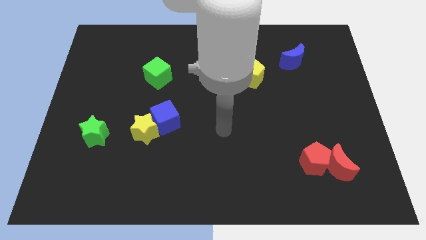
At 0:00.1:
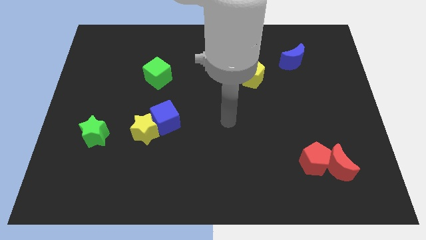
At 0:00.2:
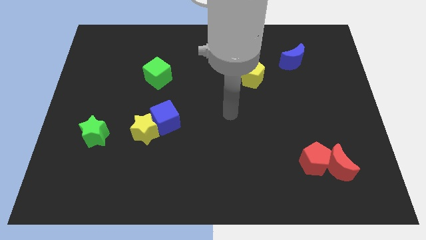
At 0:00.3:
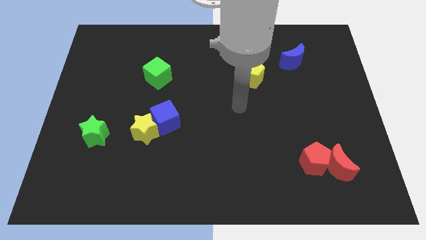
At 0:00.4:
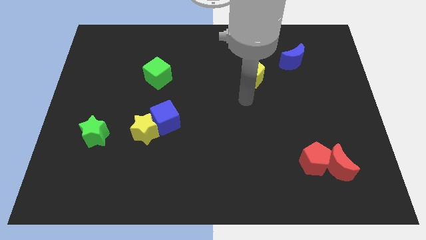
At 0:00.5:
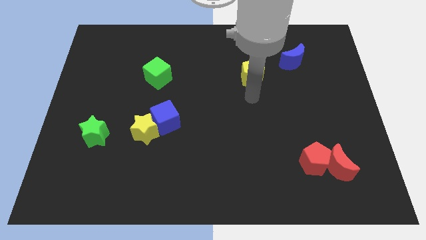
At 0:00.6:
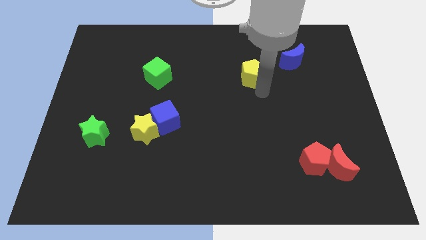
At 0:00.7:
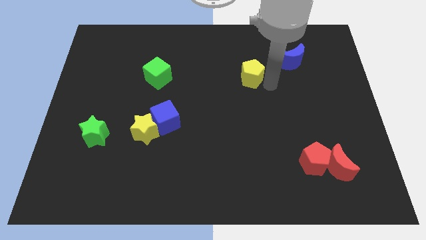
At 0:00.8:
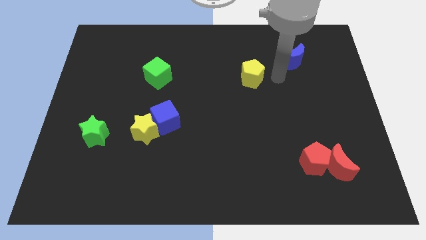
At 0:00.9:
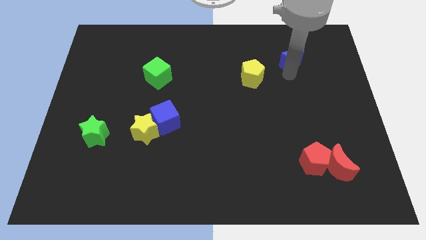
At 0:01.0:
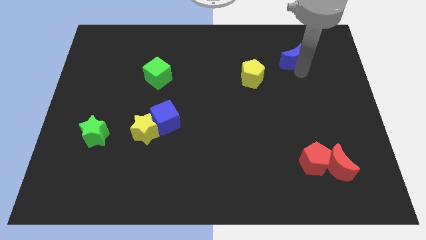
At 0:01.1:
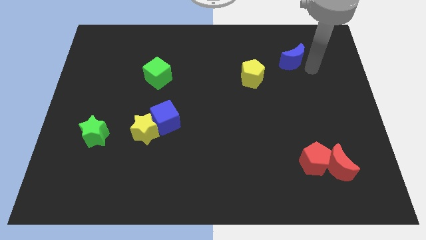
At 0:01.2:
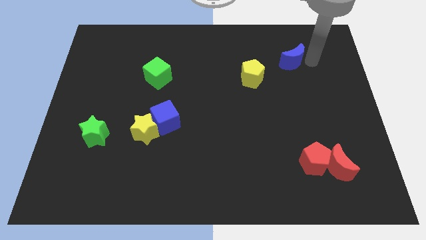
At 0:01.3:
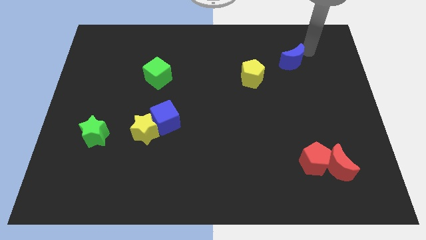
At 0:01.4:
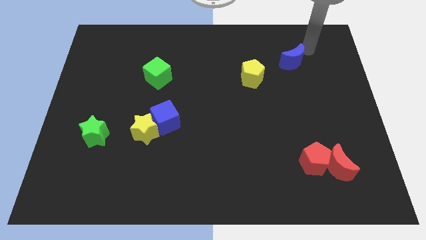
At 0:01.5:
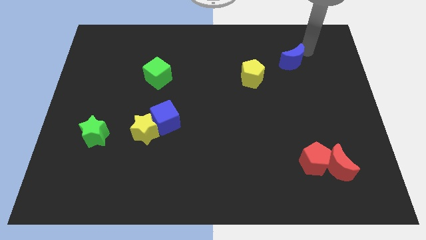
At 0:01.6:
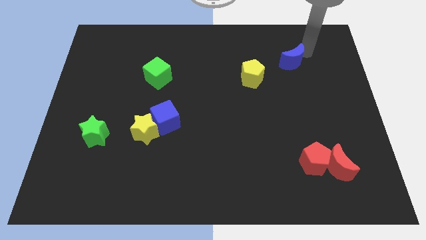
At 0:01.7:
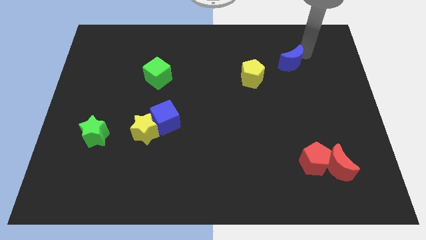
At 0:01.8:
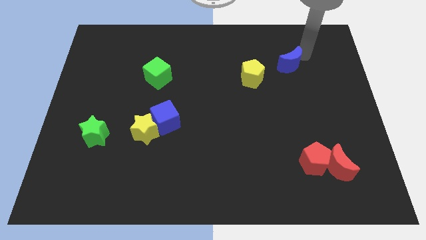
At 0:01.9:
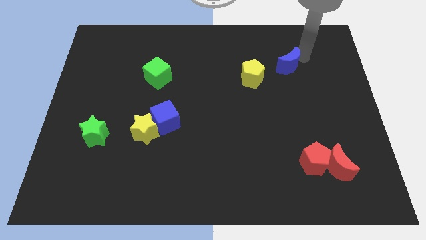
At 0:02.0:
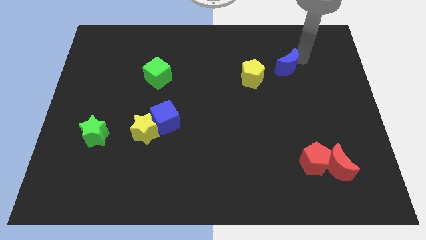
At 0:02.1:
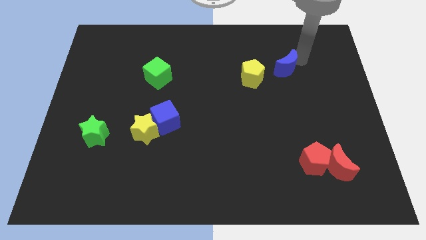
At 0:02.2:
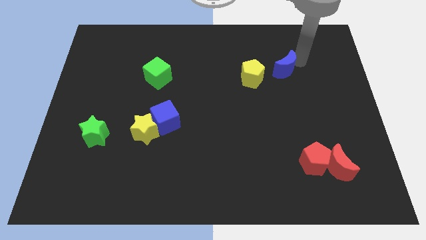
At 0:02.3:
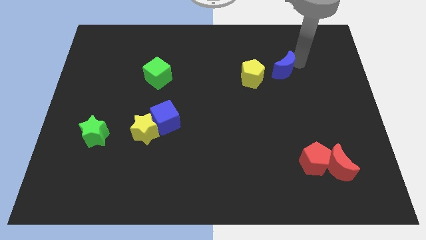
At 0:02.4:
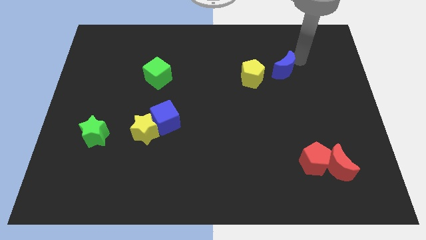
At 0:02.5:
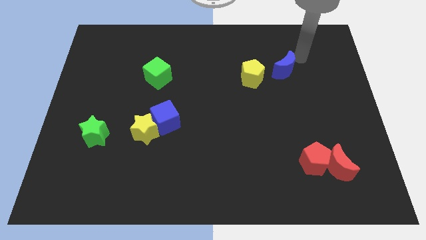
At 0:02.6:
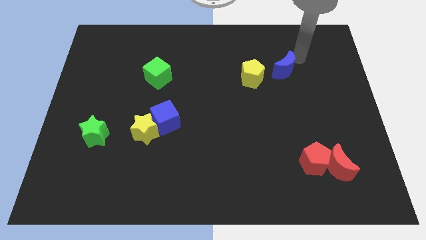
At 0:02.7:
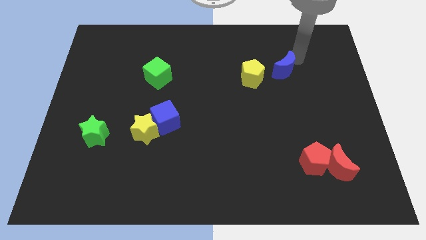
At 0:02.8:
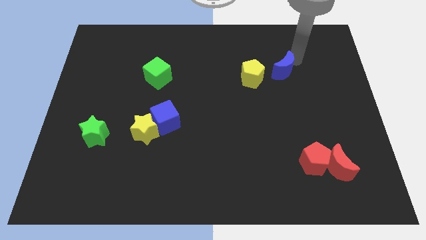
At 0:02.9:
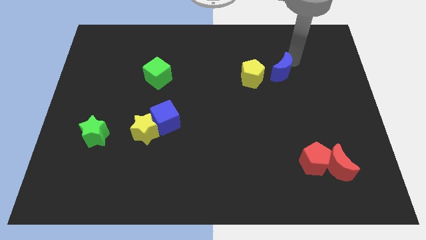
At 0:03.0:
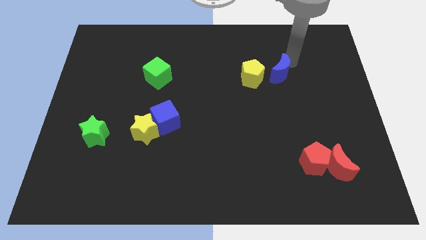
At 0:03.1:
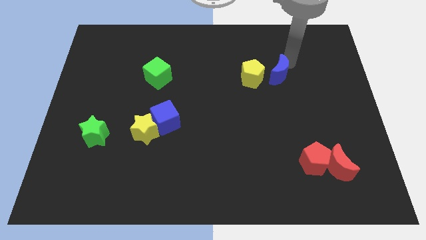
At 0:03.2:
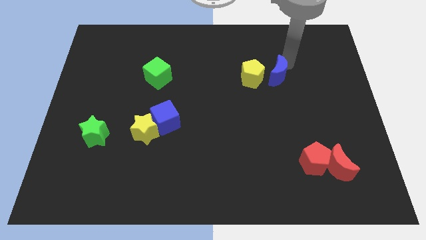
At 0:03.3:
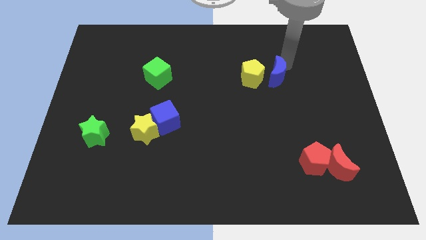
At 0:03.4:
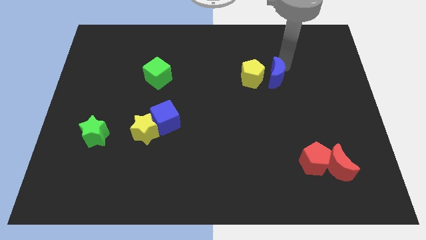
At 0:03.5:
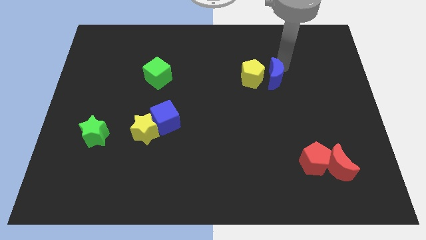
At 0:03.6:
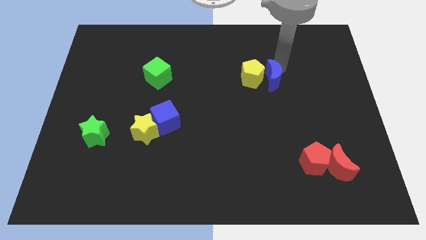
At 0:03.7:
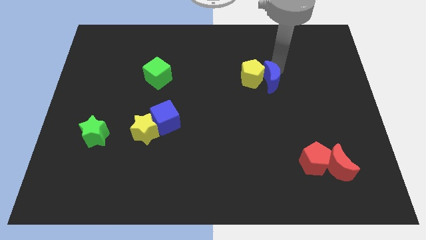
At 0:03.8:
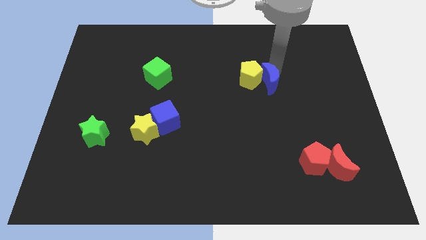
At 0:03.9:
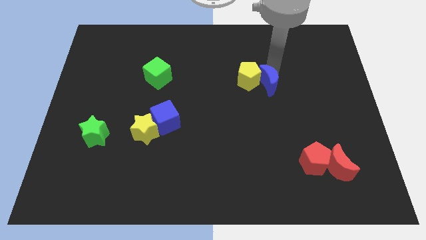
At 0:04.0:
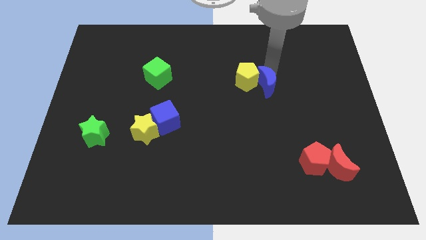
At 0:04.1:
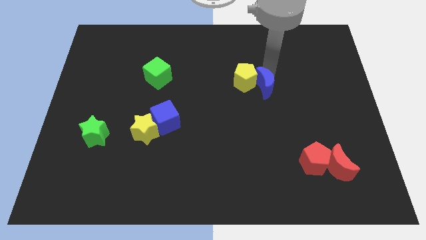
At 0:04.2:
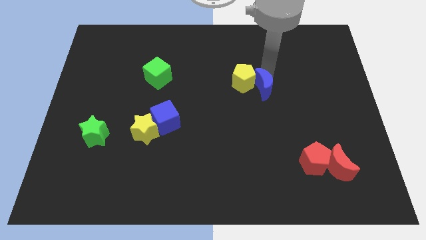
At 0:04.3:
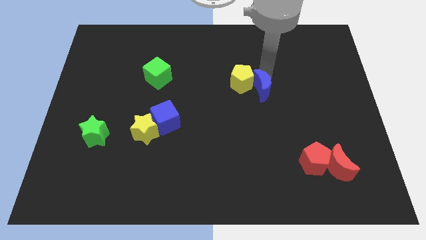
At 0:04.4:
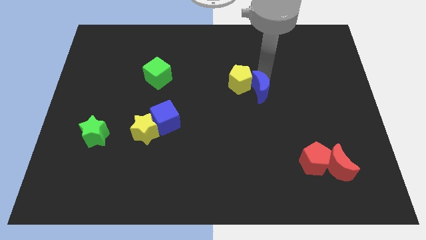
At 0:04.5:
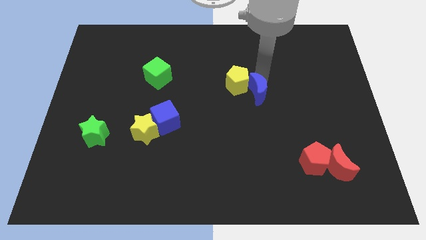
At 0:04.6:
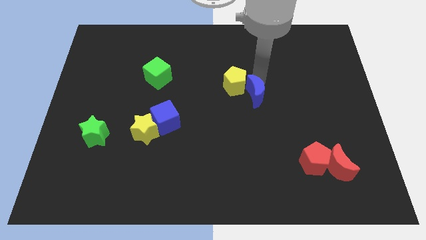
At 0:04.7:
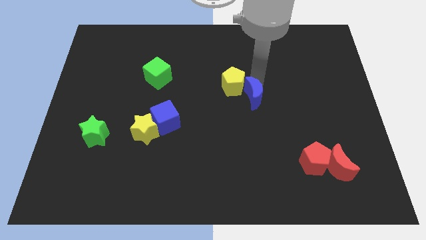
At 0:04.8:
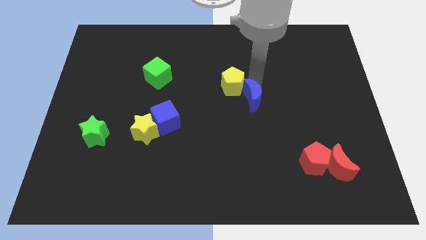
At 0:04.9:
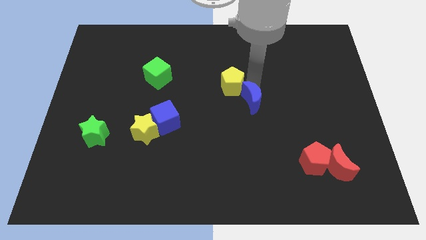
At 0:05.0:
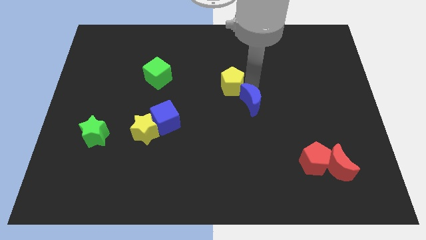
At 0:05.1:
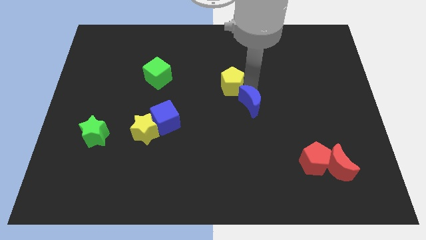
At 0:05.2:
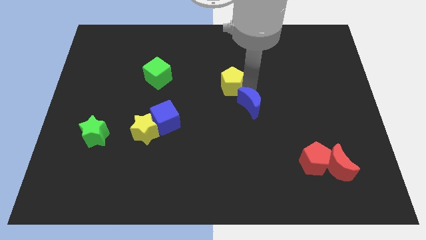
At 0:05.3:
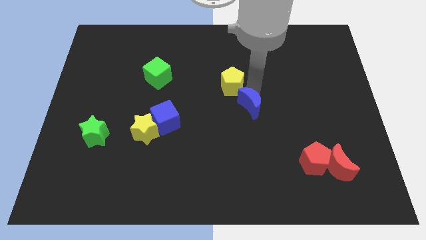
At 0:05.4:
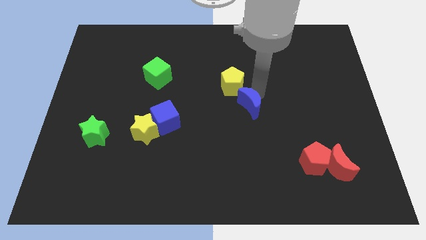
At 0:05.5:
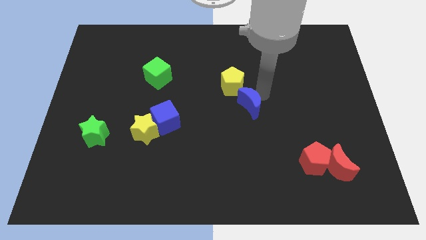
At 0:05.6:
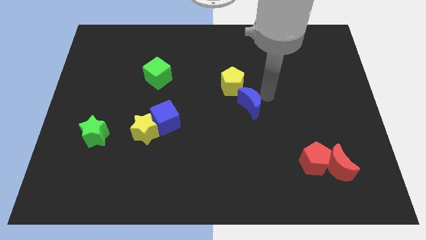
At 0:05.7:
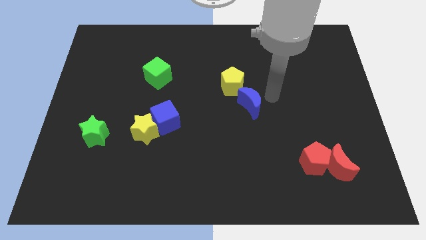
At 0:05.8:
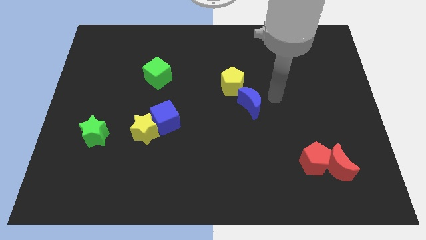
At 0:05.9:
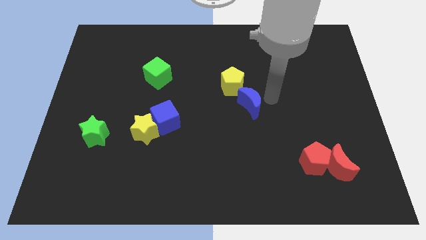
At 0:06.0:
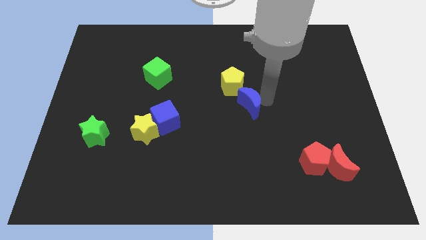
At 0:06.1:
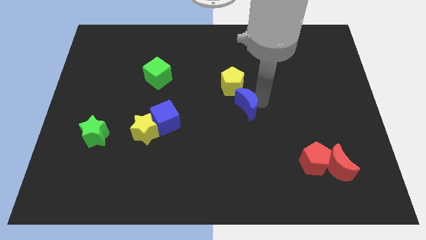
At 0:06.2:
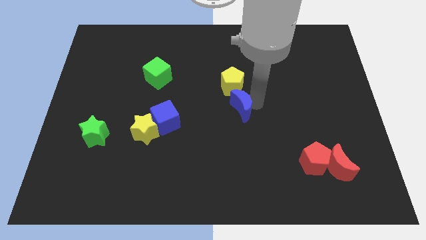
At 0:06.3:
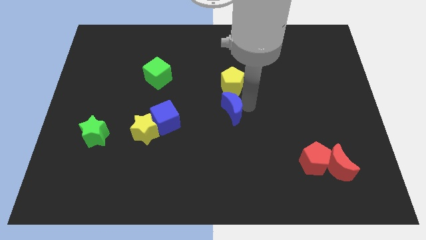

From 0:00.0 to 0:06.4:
slide the blue moon just right of the blue cube

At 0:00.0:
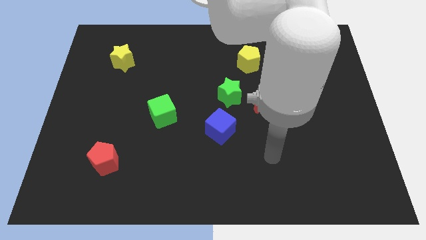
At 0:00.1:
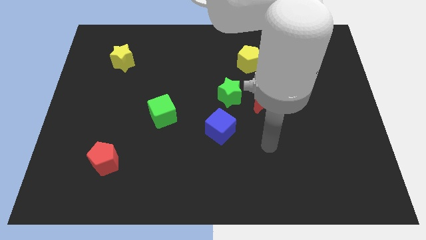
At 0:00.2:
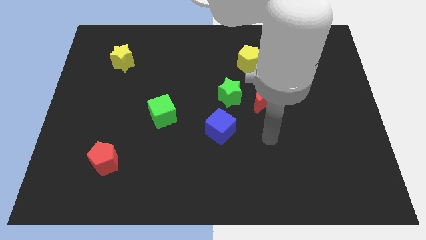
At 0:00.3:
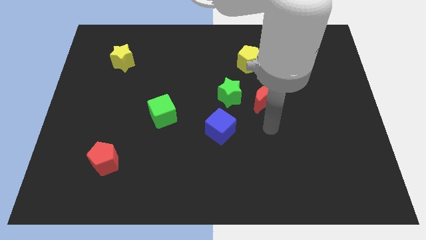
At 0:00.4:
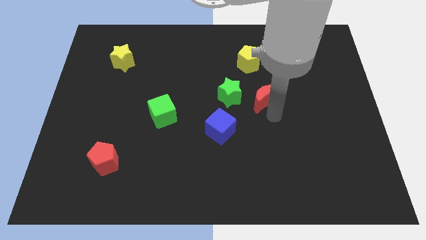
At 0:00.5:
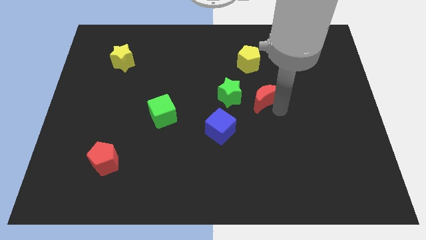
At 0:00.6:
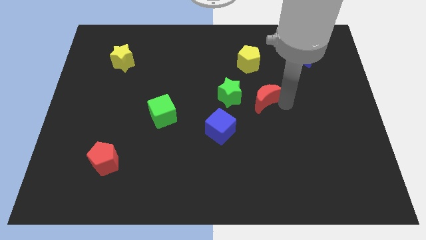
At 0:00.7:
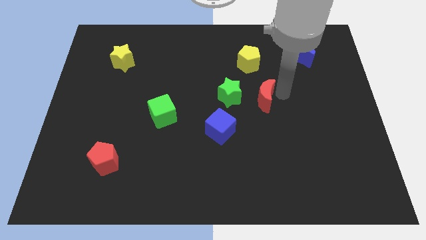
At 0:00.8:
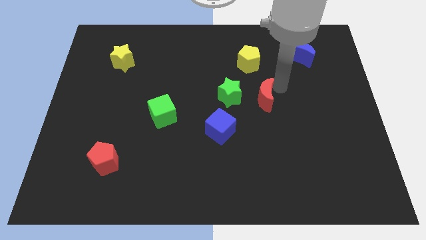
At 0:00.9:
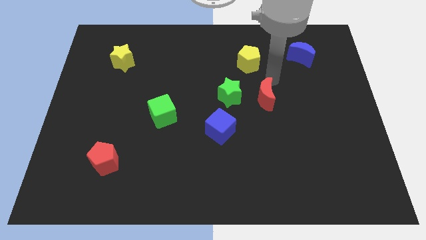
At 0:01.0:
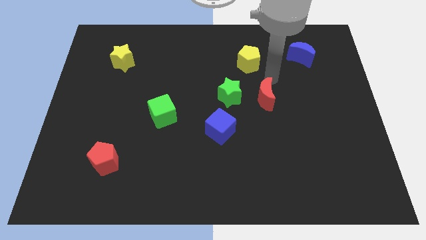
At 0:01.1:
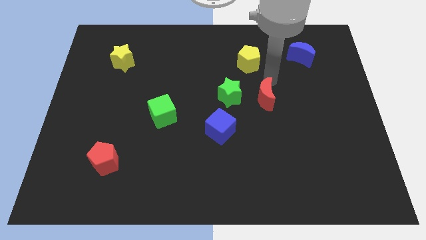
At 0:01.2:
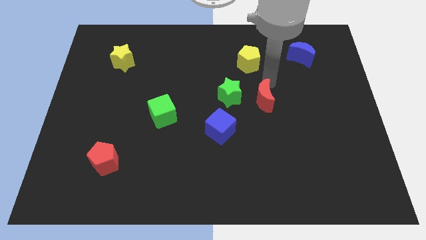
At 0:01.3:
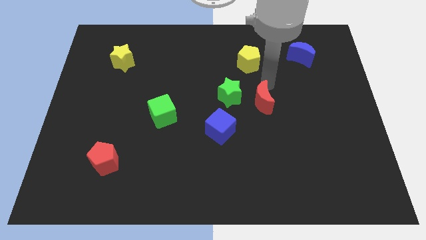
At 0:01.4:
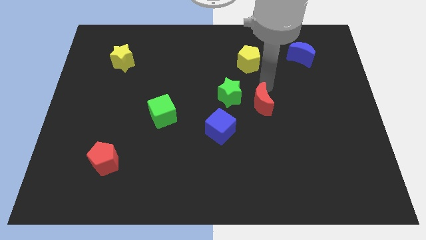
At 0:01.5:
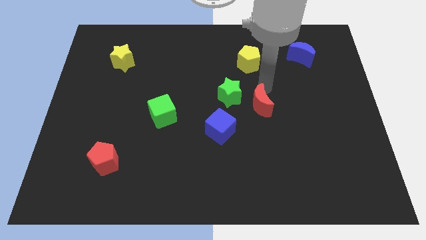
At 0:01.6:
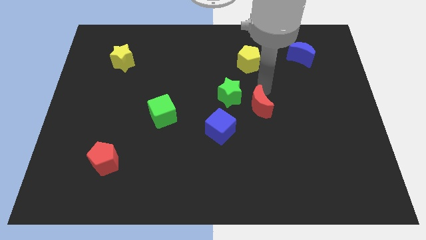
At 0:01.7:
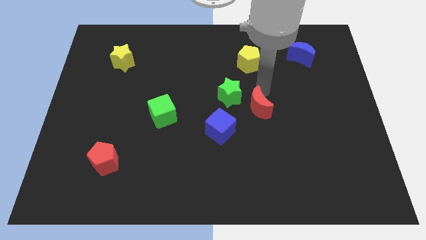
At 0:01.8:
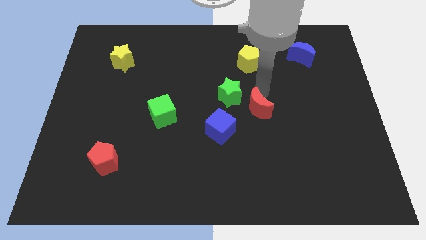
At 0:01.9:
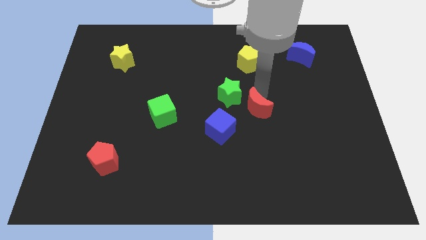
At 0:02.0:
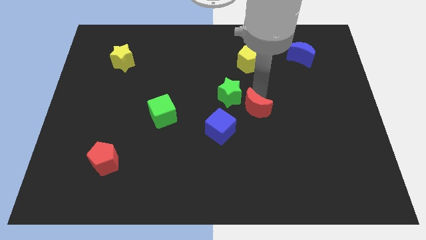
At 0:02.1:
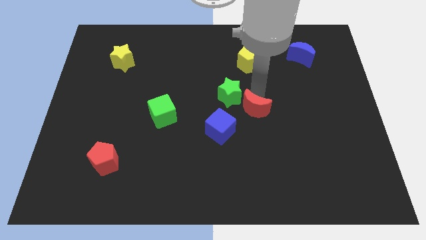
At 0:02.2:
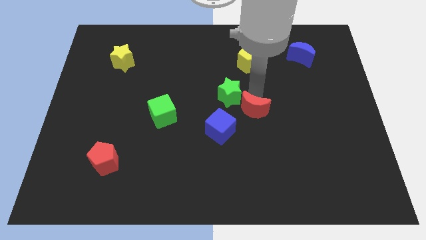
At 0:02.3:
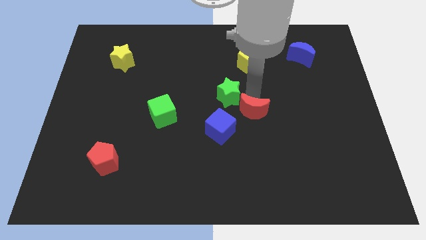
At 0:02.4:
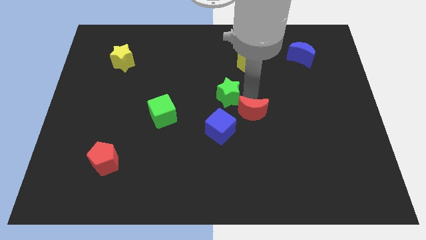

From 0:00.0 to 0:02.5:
put the red moon to the bottom of the green star
